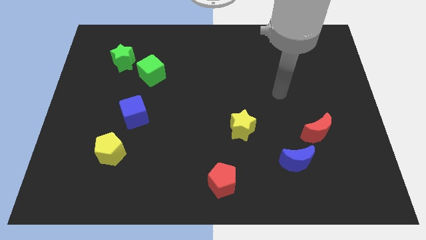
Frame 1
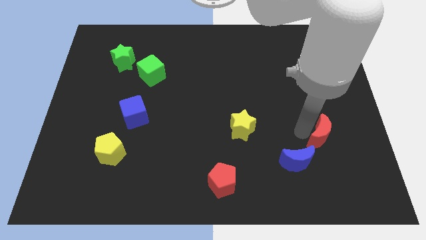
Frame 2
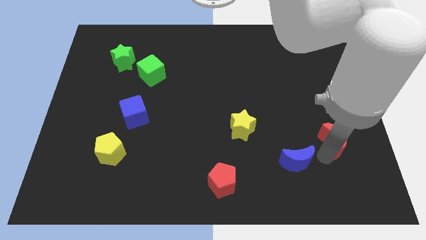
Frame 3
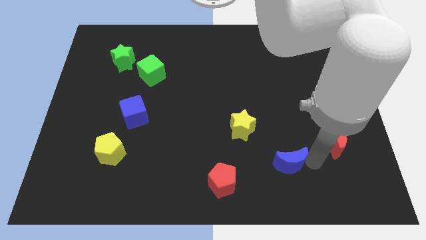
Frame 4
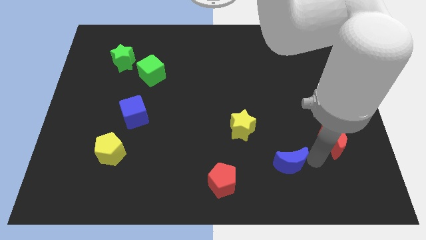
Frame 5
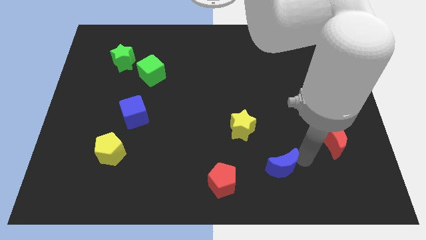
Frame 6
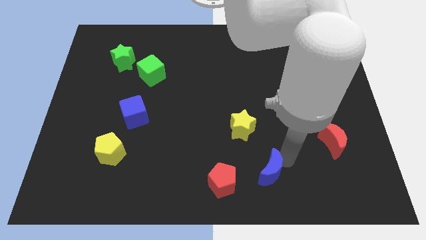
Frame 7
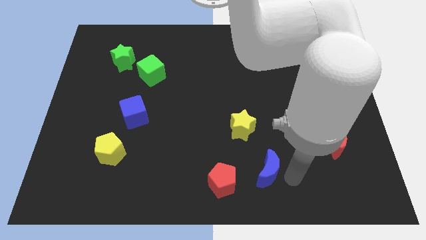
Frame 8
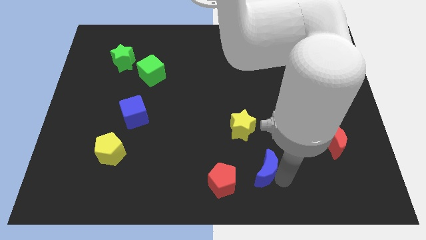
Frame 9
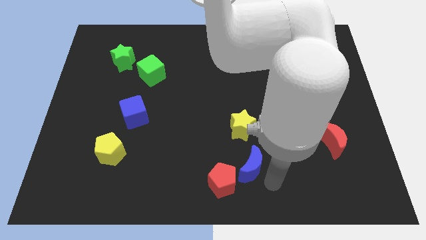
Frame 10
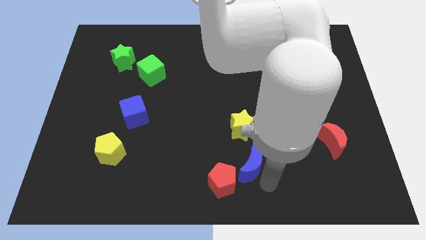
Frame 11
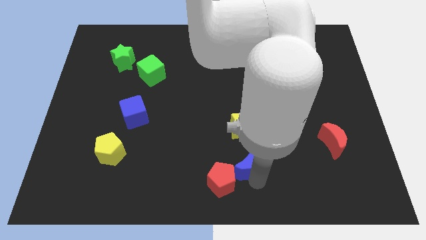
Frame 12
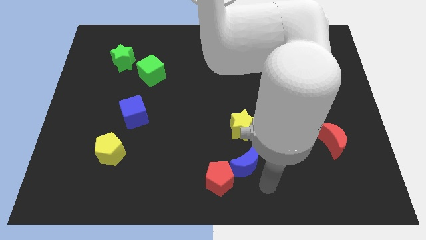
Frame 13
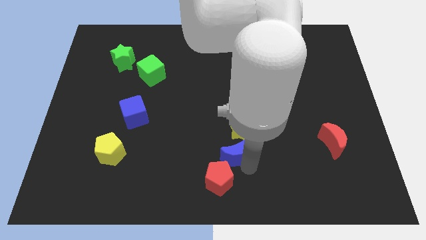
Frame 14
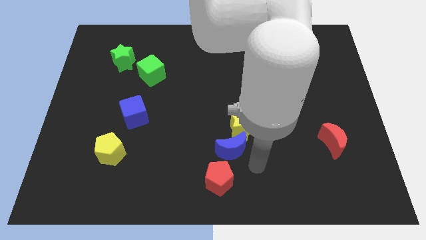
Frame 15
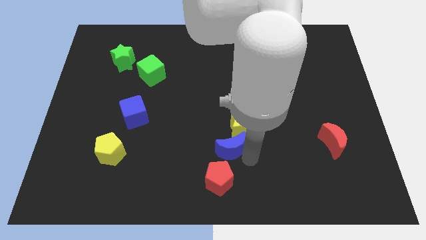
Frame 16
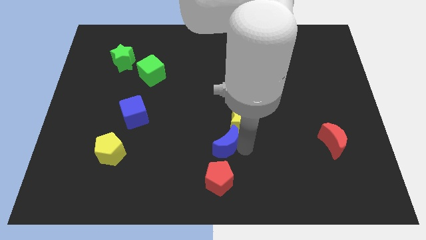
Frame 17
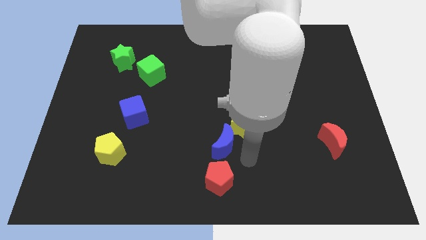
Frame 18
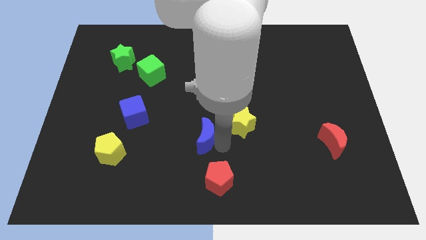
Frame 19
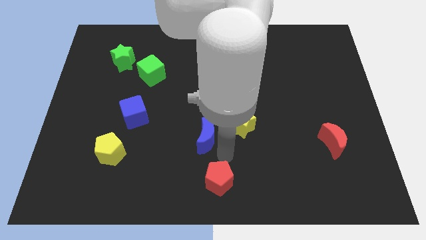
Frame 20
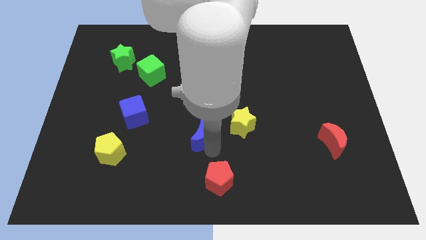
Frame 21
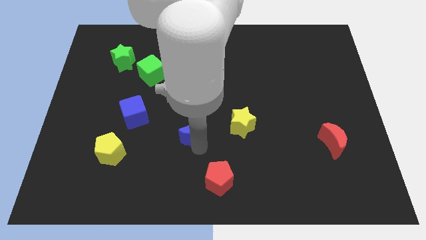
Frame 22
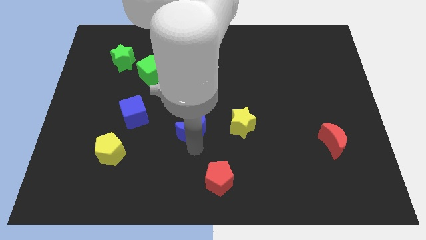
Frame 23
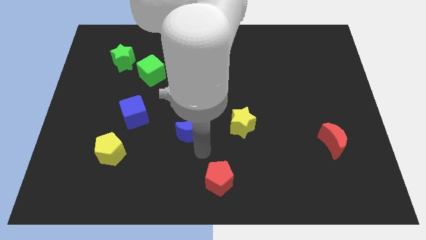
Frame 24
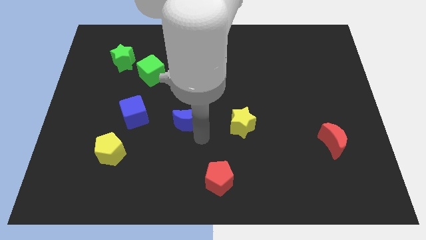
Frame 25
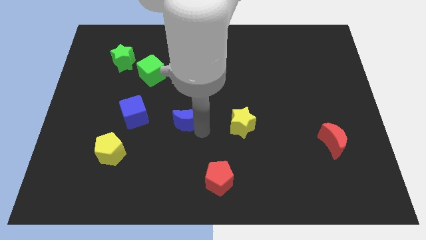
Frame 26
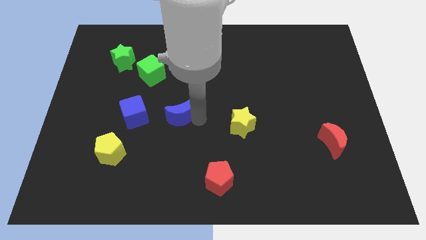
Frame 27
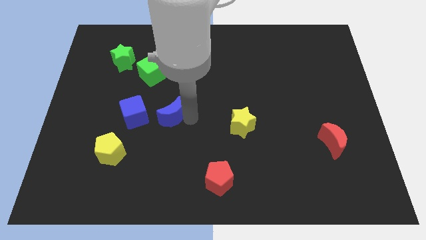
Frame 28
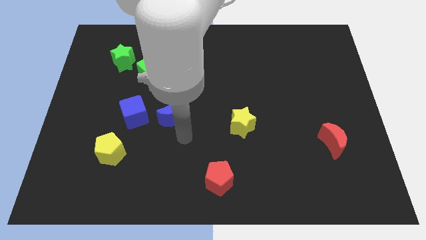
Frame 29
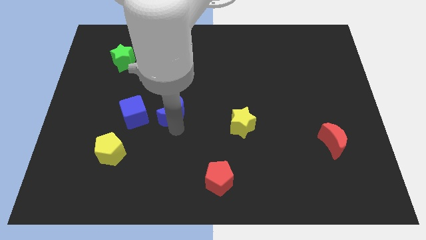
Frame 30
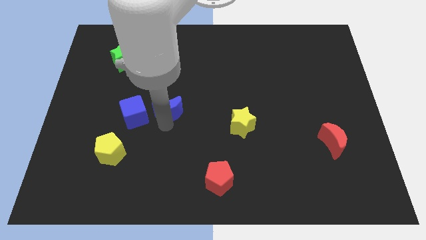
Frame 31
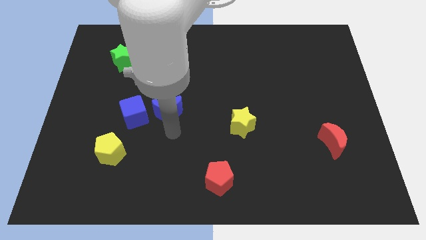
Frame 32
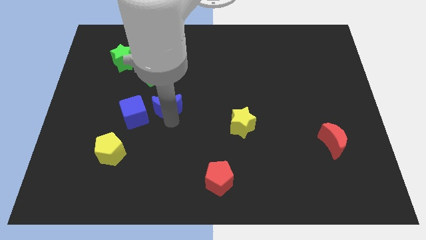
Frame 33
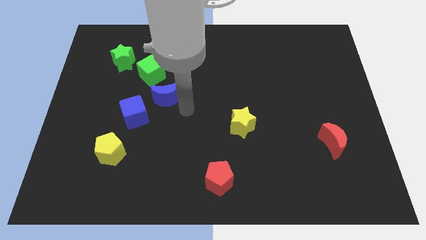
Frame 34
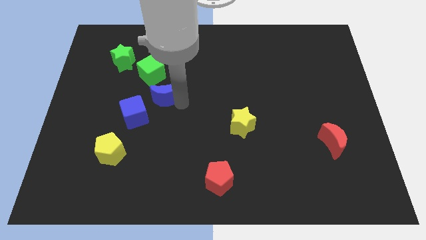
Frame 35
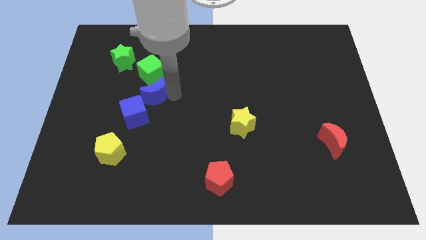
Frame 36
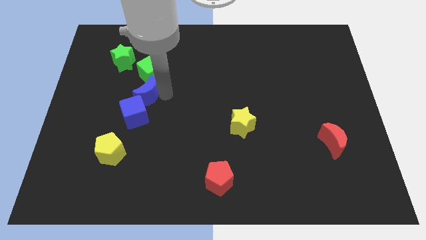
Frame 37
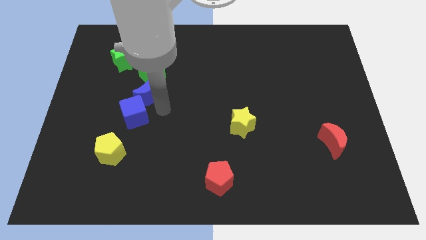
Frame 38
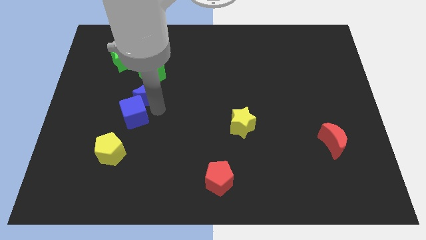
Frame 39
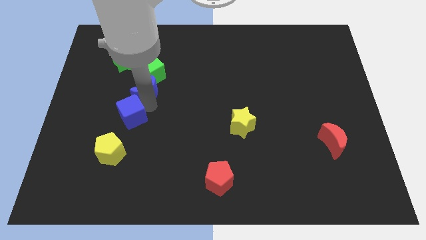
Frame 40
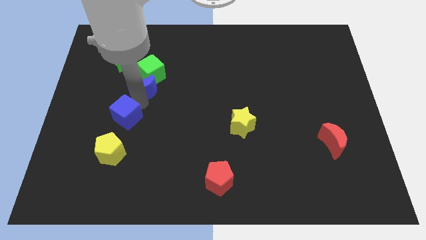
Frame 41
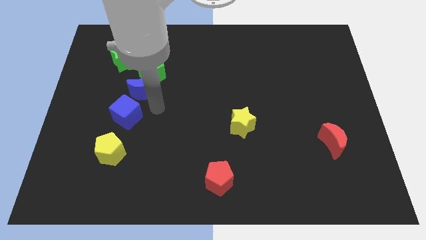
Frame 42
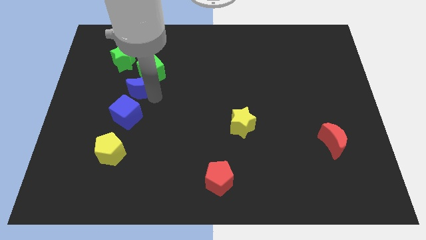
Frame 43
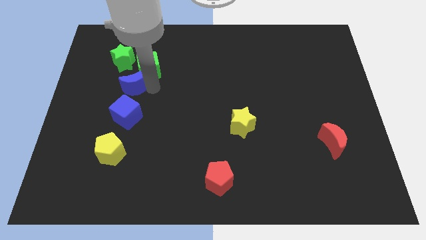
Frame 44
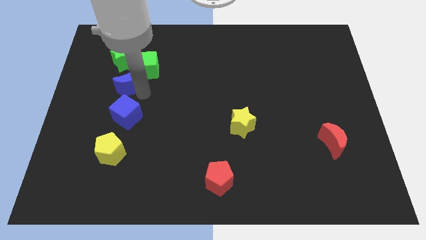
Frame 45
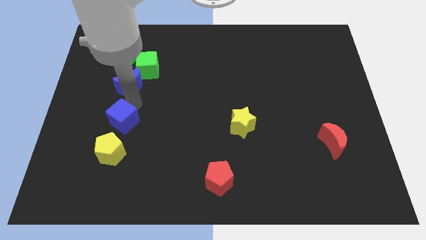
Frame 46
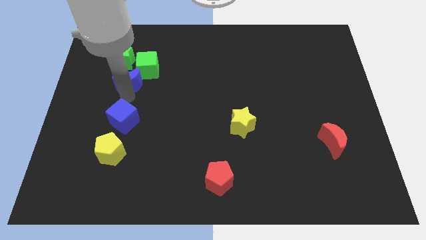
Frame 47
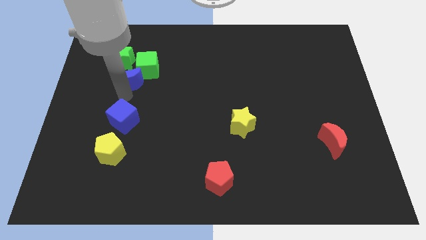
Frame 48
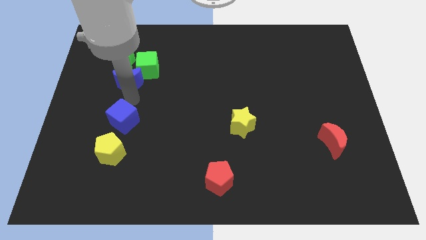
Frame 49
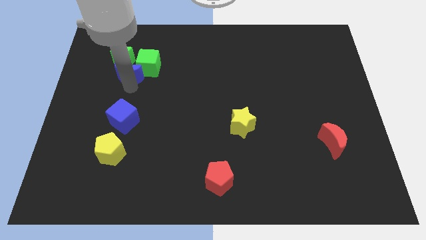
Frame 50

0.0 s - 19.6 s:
push the blue moon to the green star

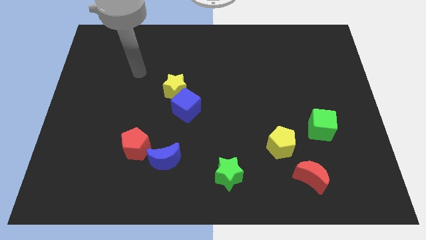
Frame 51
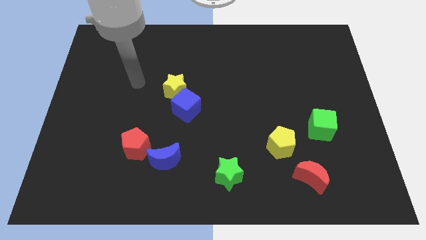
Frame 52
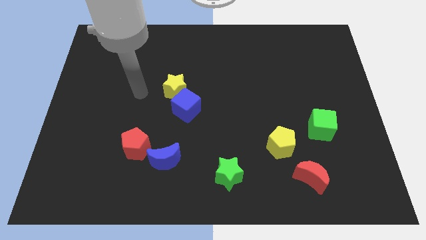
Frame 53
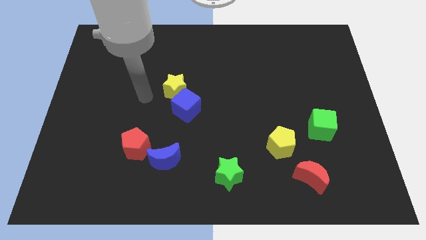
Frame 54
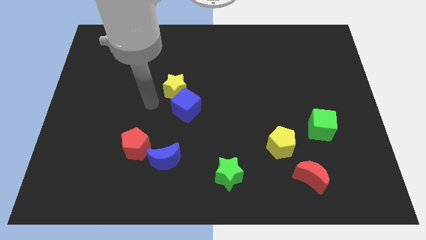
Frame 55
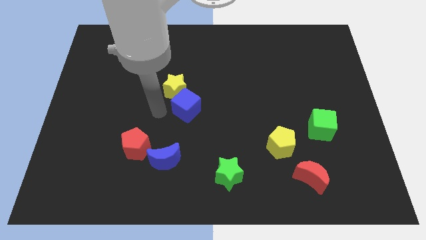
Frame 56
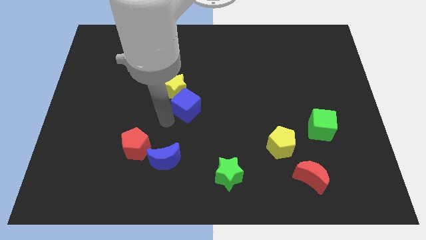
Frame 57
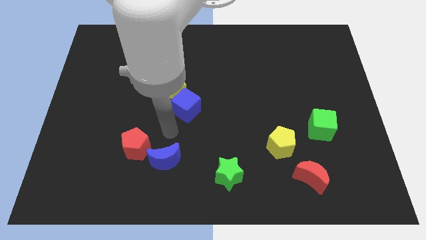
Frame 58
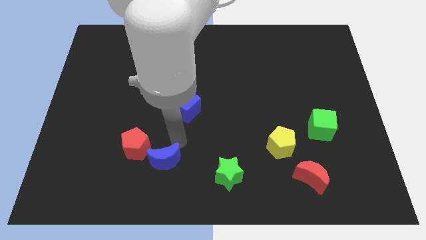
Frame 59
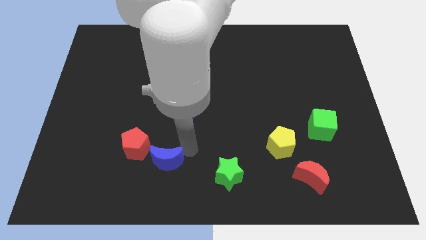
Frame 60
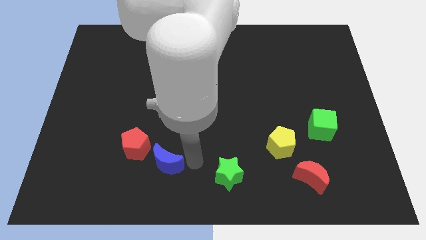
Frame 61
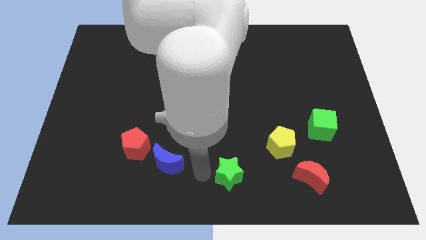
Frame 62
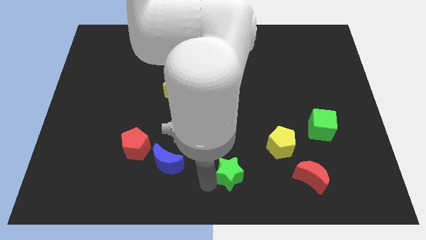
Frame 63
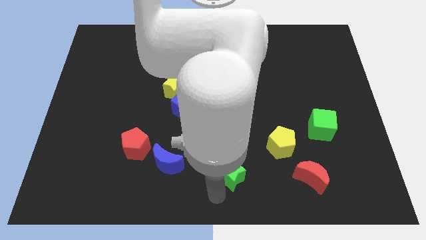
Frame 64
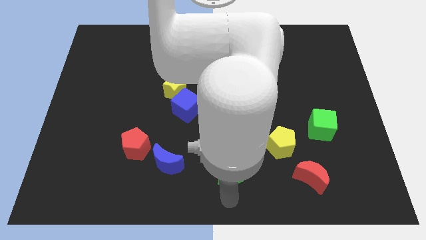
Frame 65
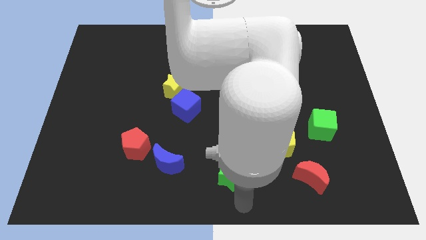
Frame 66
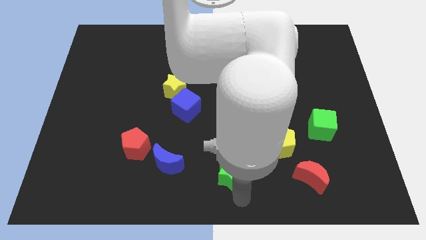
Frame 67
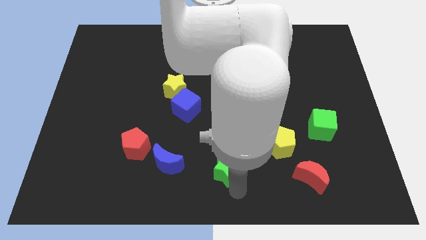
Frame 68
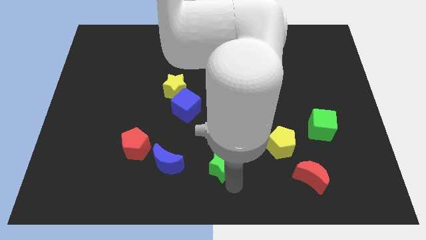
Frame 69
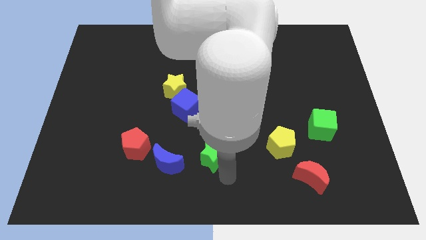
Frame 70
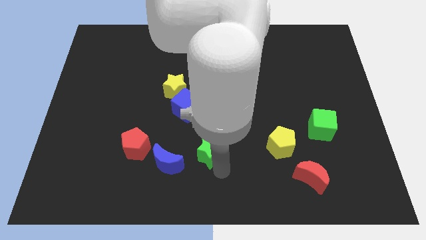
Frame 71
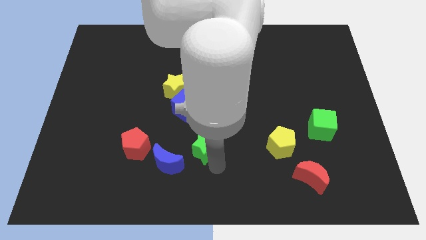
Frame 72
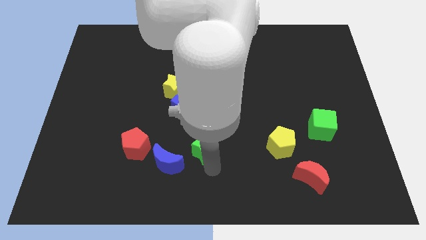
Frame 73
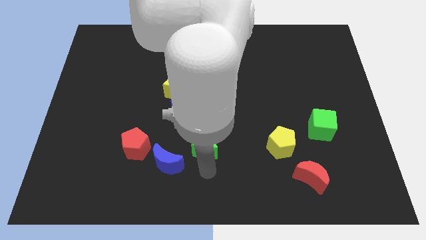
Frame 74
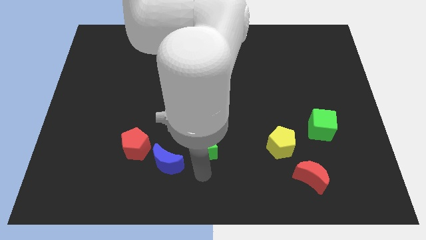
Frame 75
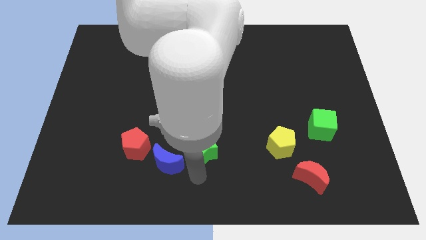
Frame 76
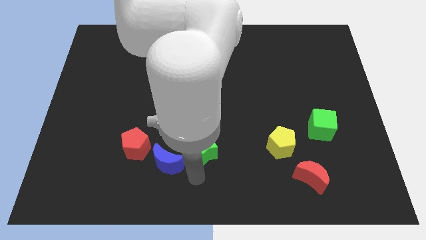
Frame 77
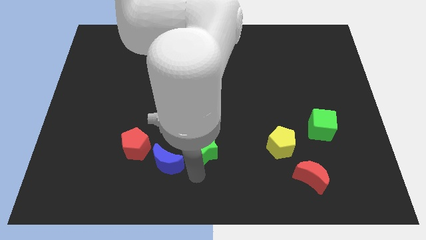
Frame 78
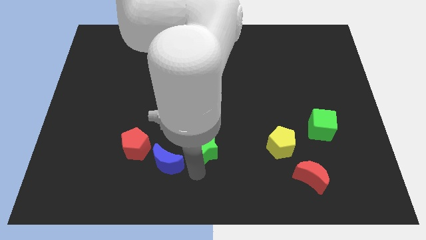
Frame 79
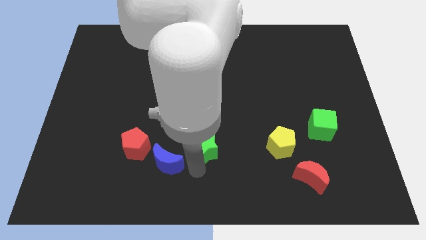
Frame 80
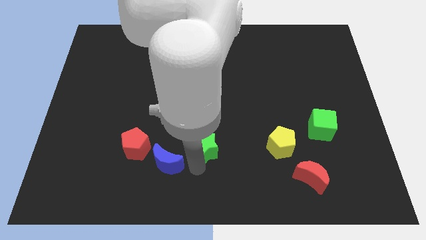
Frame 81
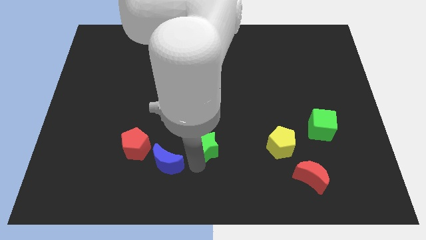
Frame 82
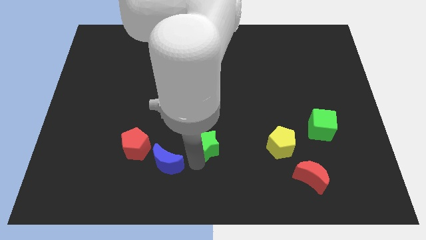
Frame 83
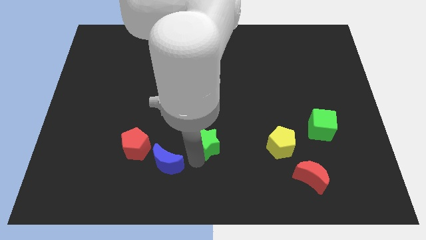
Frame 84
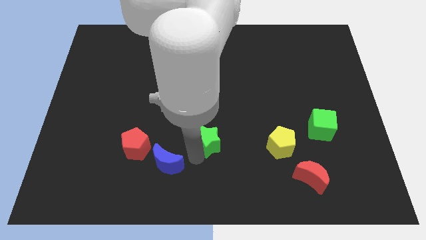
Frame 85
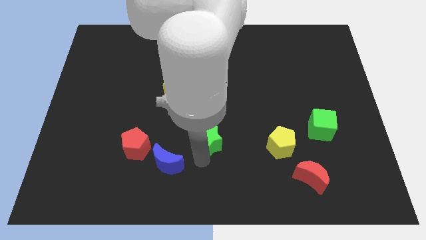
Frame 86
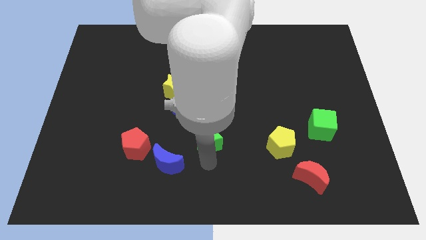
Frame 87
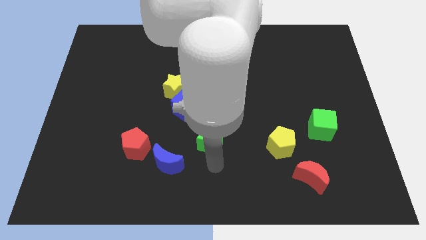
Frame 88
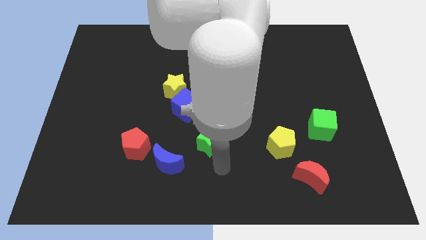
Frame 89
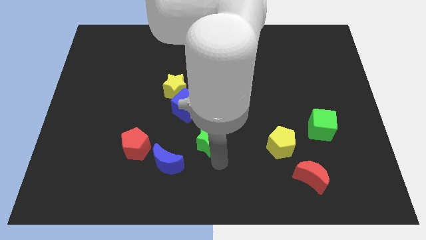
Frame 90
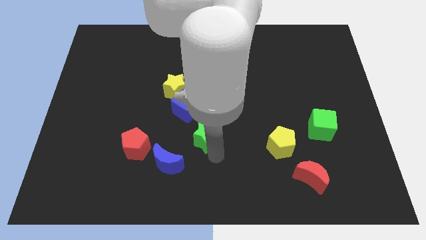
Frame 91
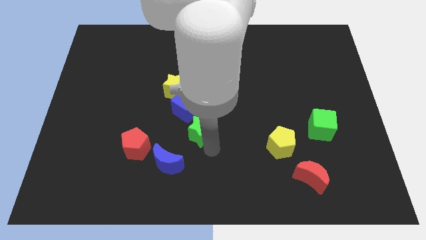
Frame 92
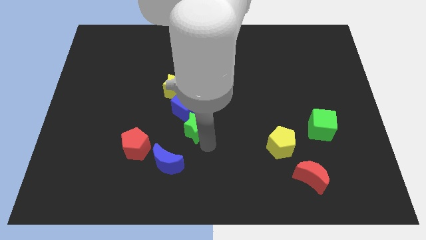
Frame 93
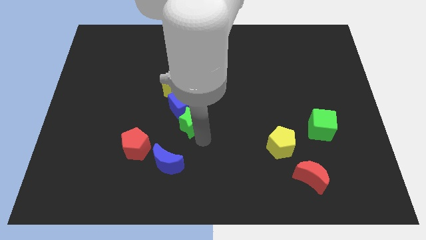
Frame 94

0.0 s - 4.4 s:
put the green star close to the blue cube
